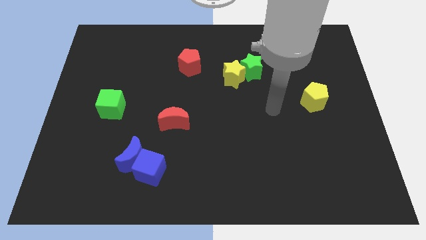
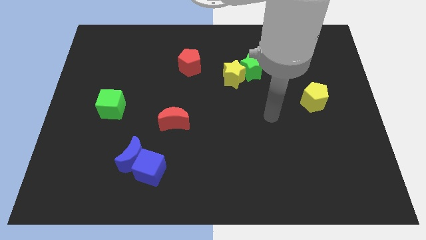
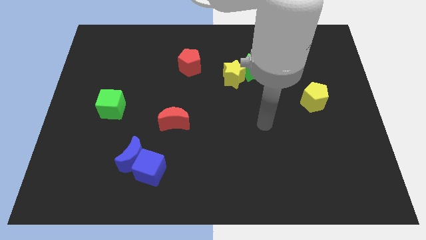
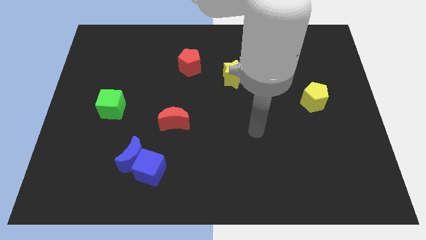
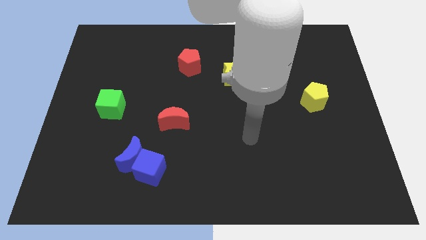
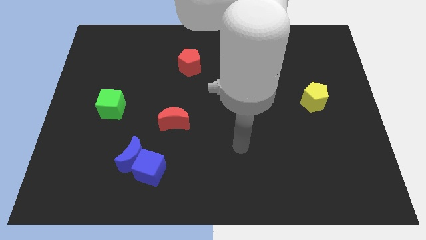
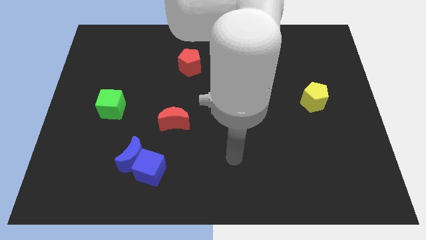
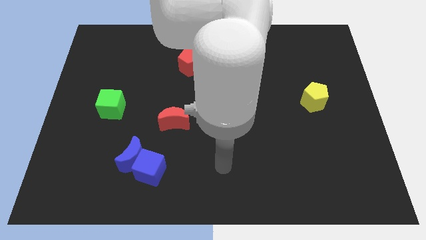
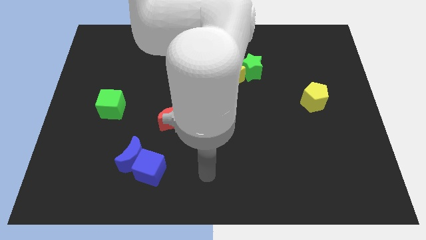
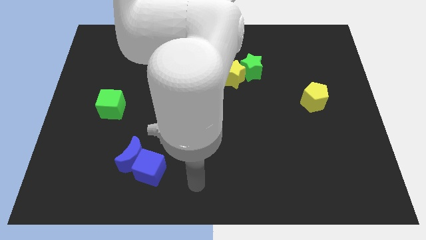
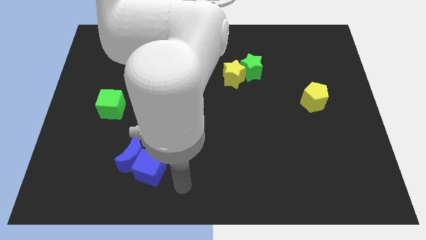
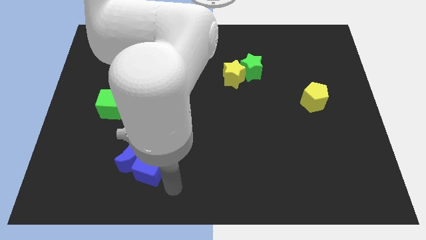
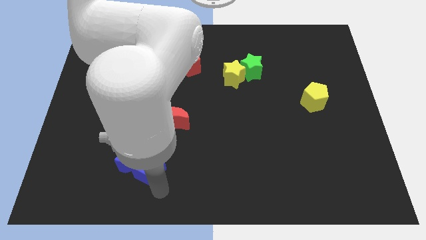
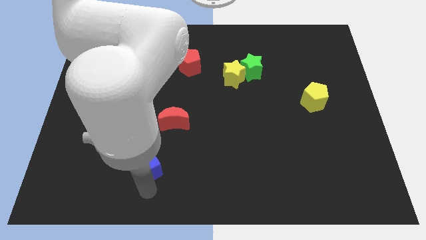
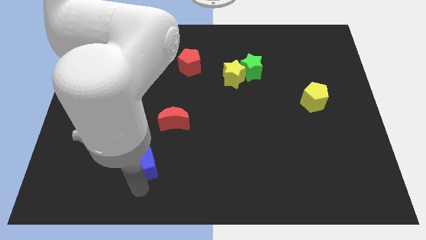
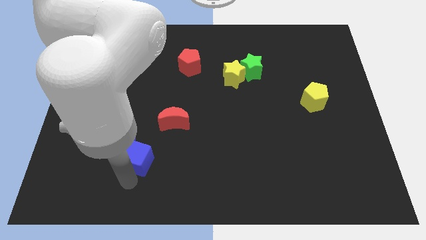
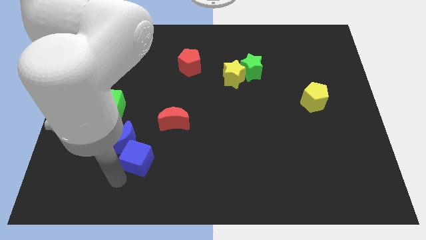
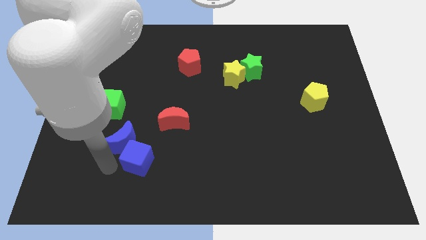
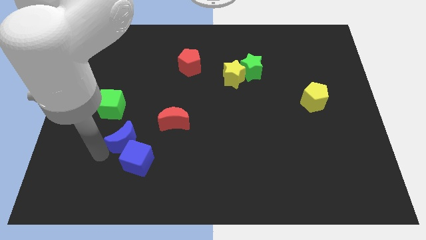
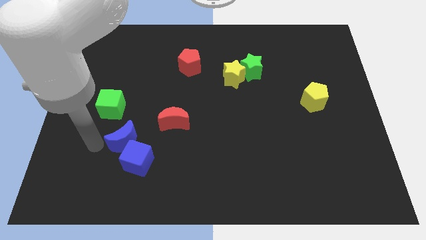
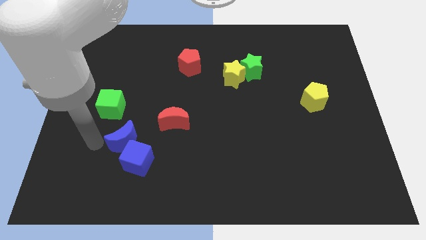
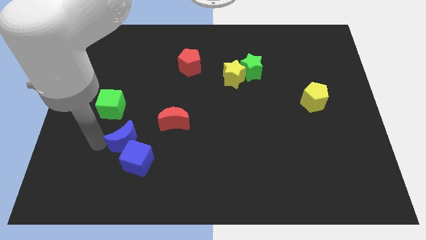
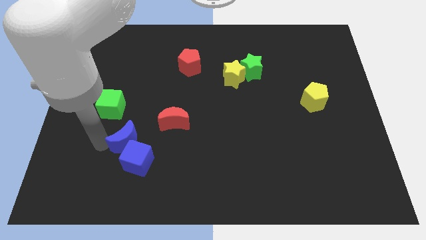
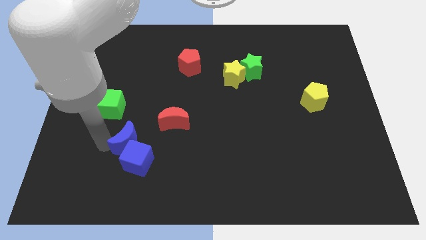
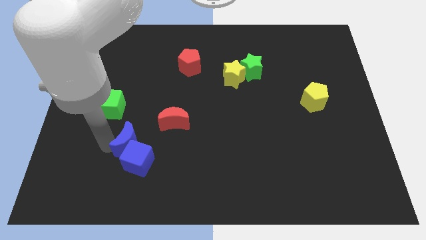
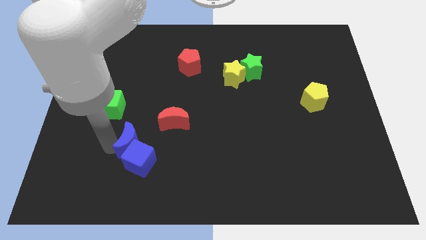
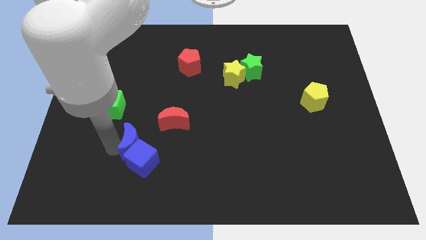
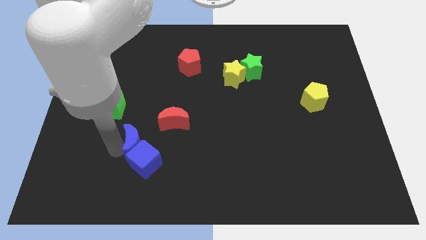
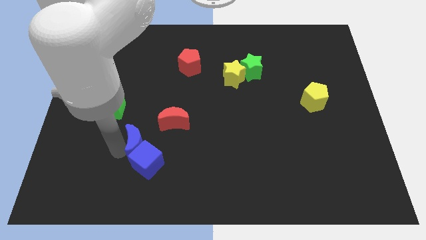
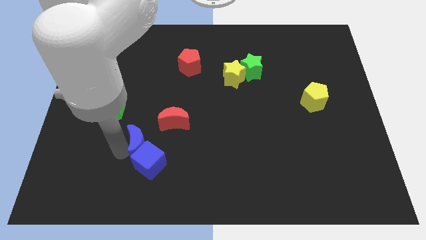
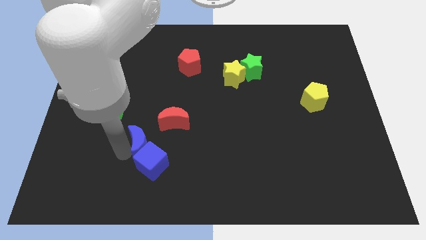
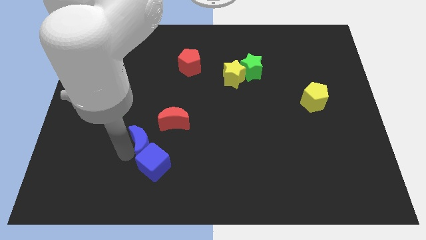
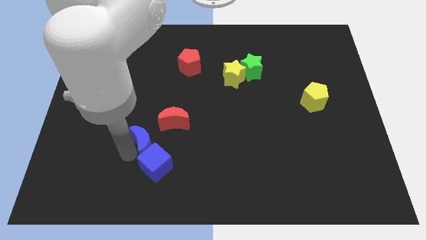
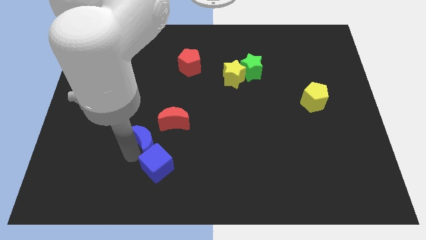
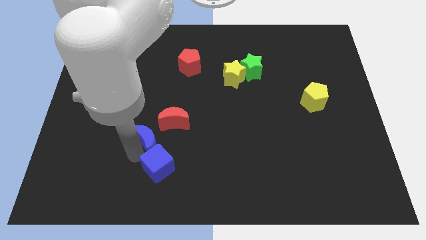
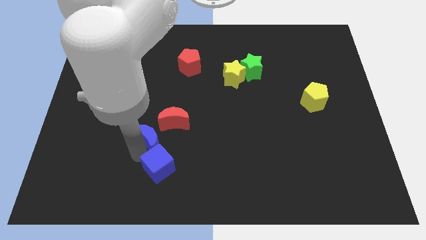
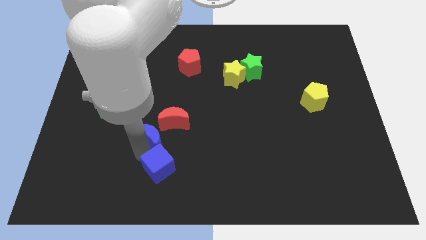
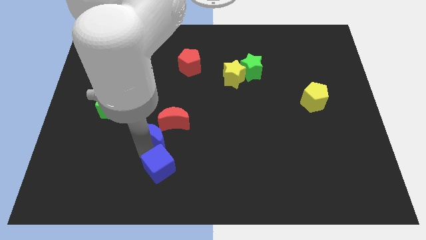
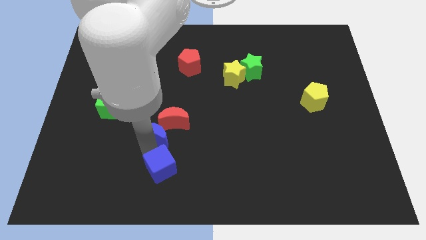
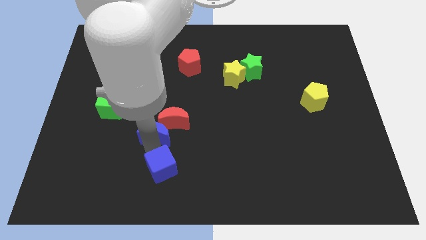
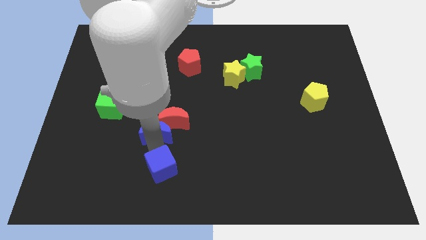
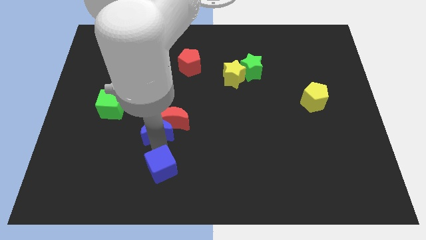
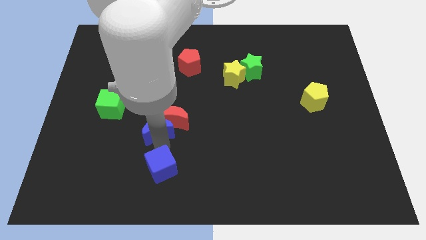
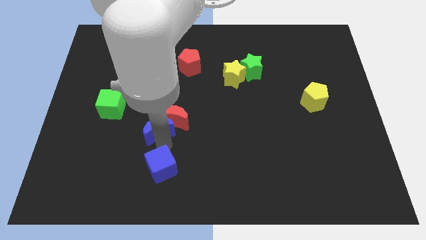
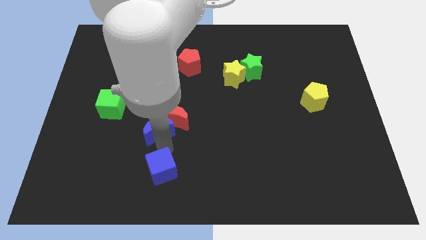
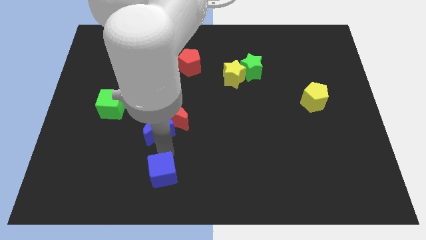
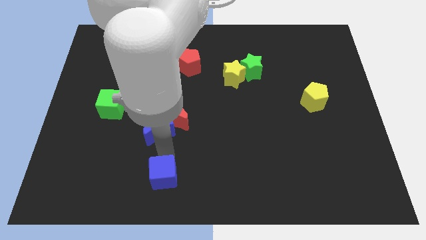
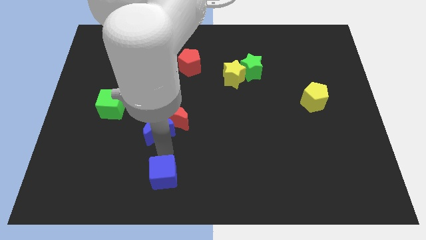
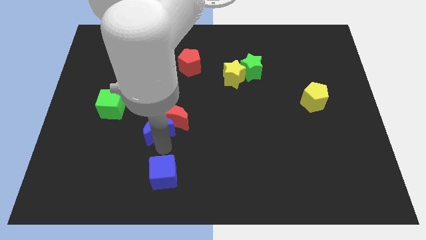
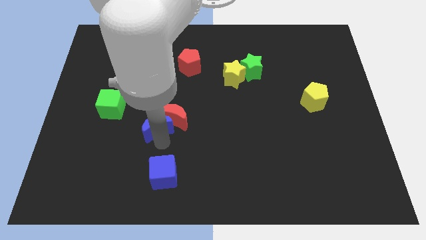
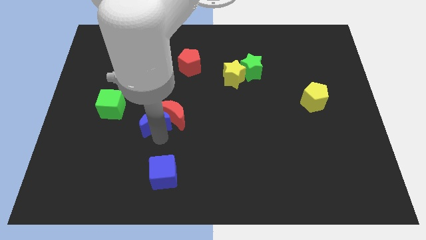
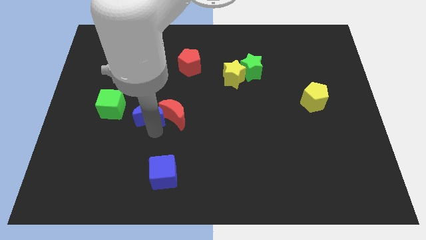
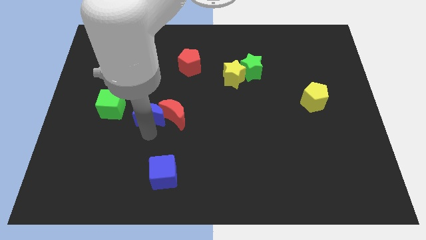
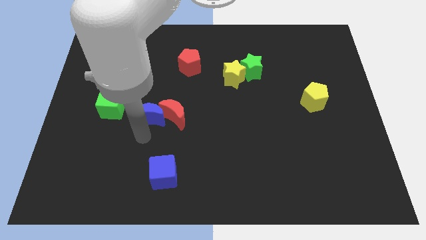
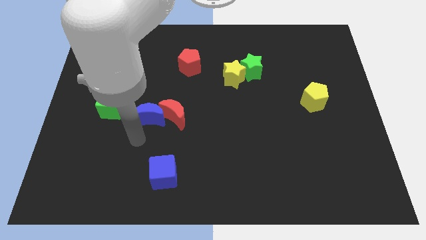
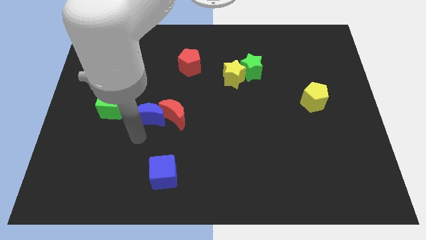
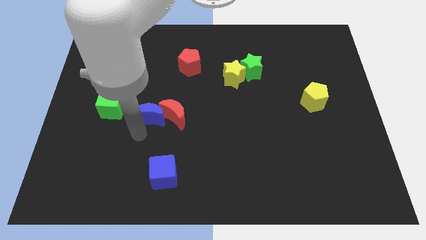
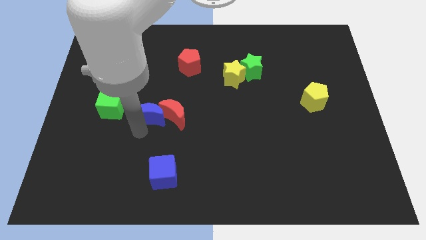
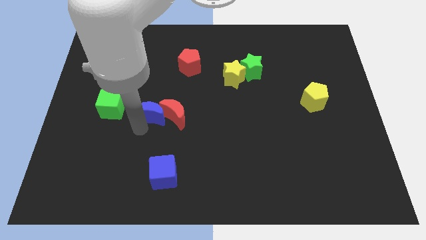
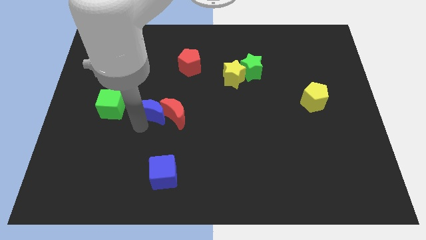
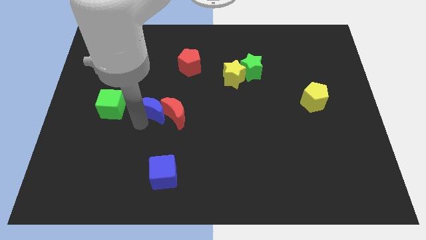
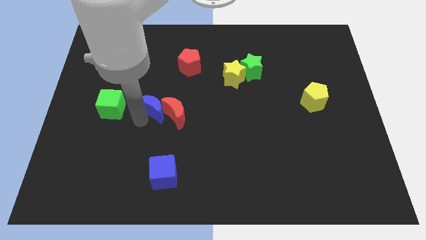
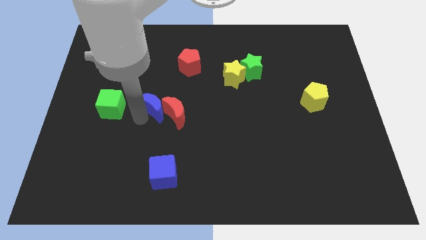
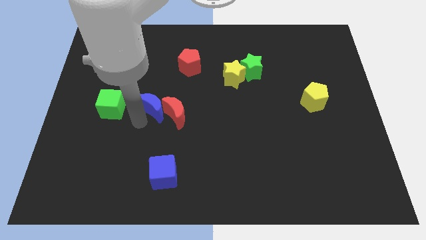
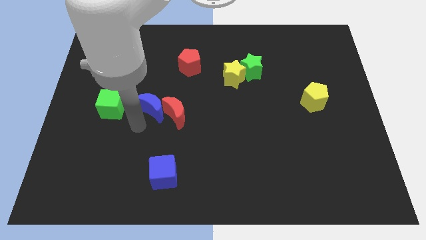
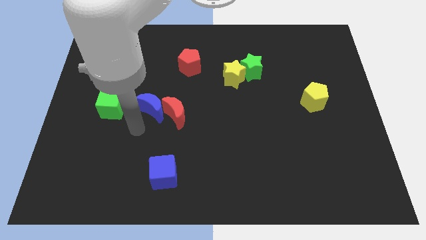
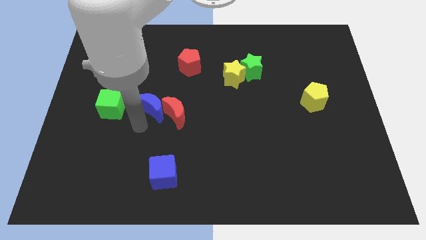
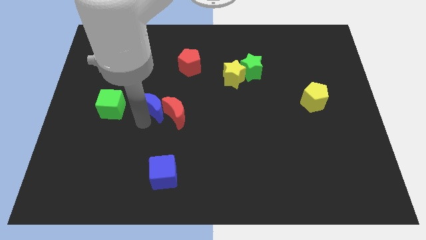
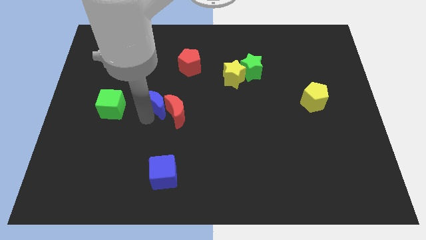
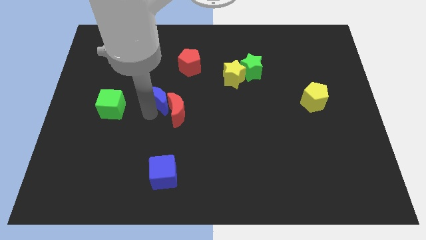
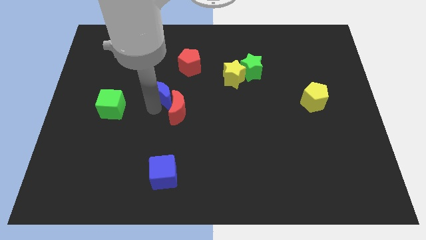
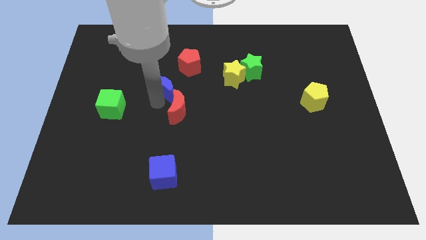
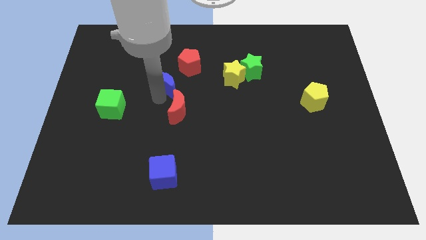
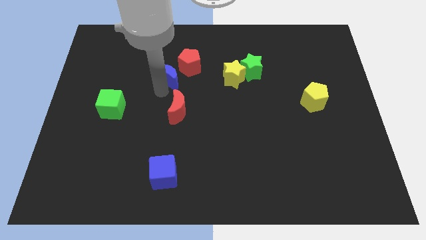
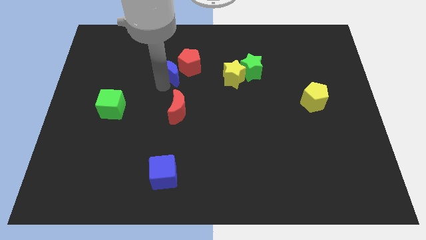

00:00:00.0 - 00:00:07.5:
move the blue moon to the red pentagon
